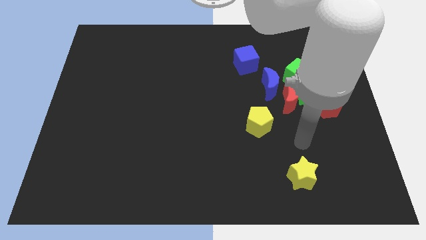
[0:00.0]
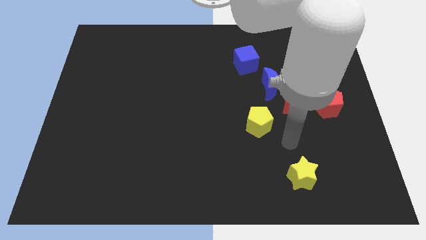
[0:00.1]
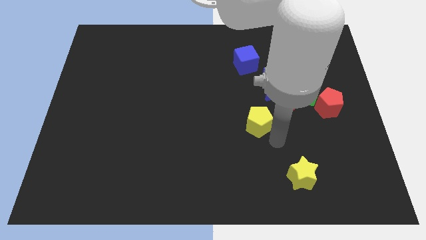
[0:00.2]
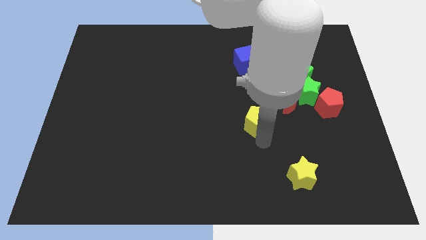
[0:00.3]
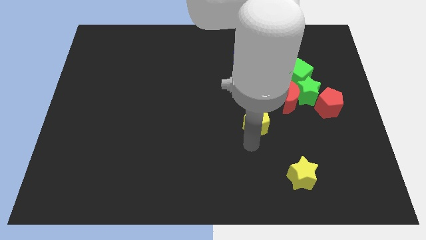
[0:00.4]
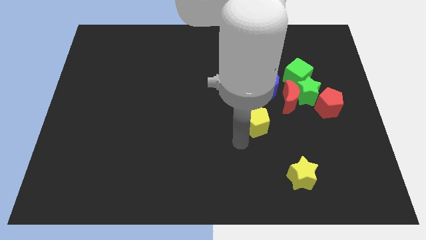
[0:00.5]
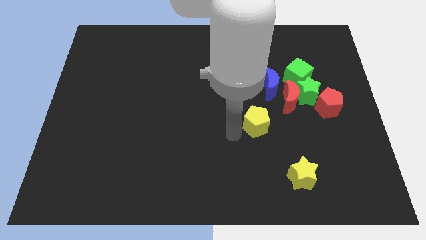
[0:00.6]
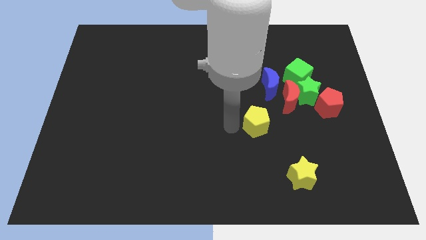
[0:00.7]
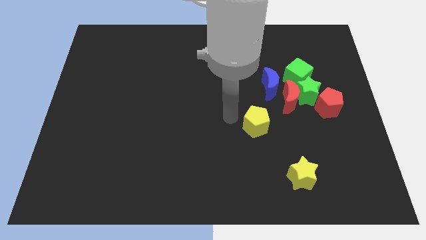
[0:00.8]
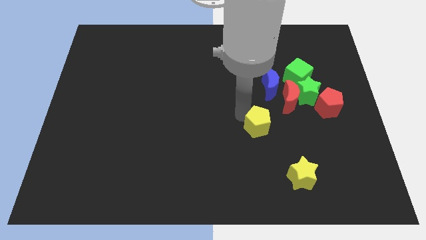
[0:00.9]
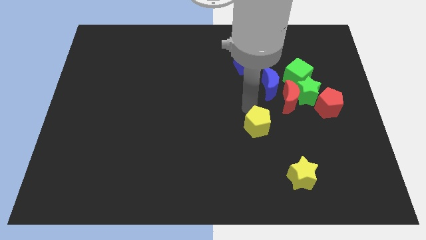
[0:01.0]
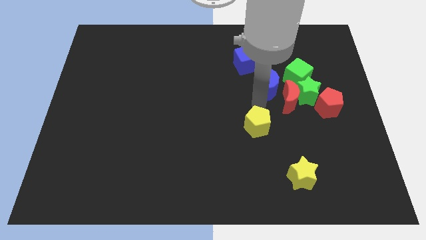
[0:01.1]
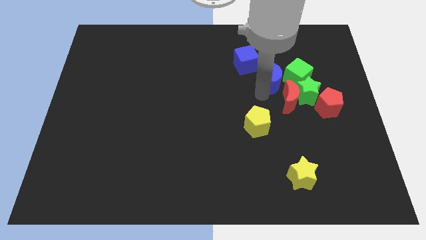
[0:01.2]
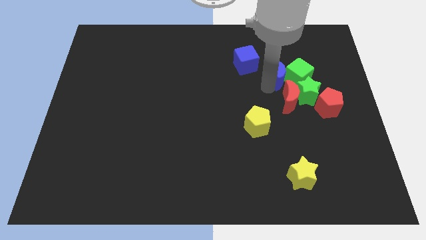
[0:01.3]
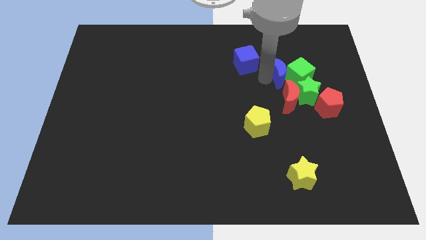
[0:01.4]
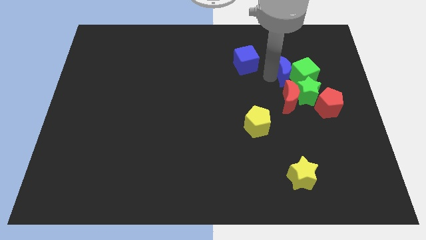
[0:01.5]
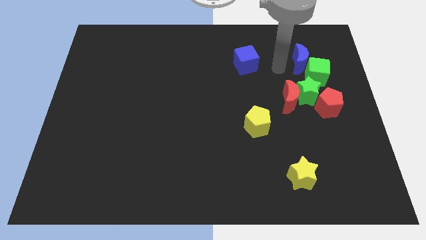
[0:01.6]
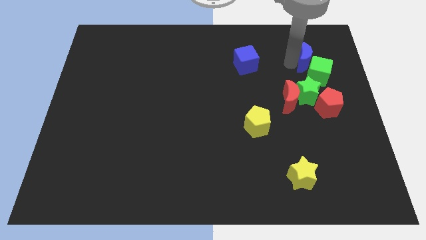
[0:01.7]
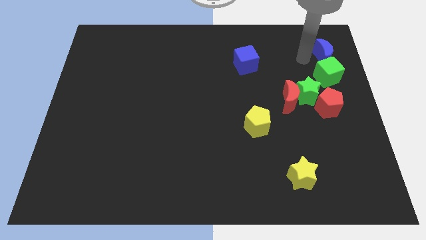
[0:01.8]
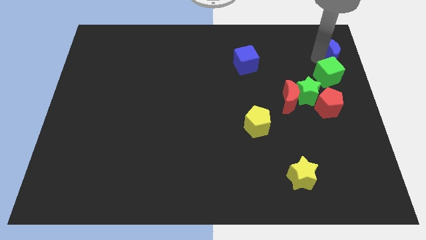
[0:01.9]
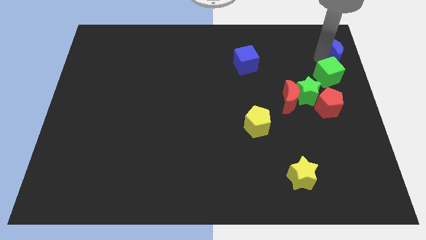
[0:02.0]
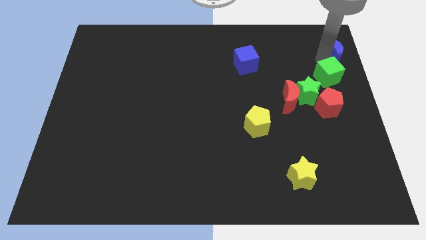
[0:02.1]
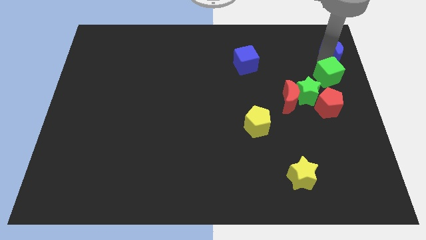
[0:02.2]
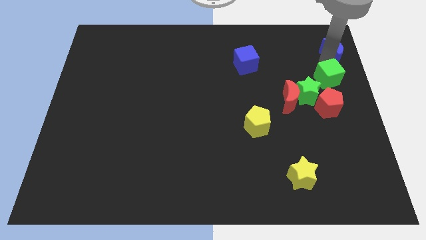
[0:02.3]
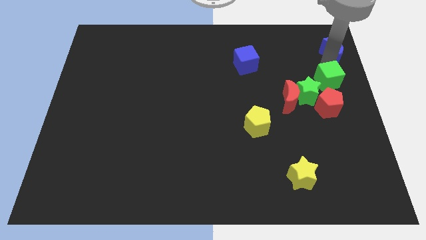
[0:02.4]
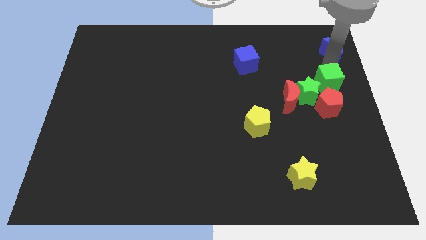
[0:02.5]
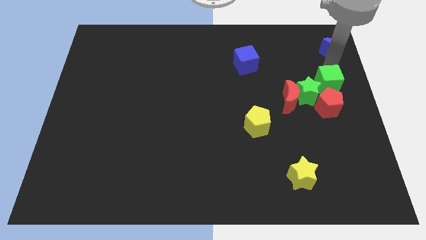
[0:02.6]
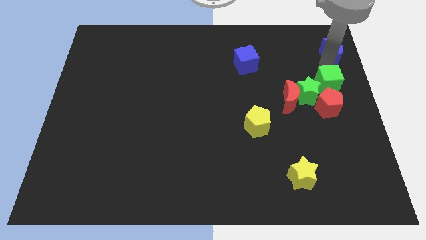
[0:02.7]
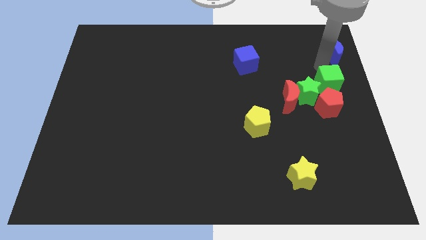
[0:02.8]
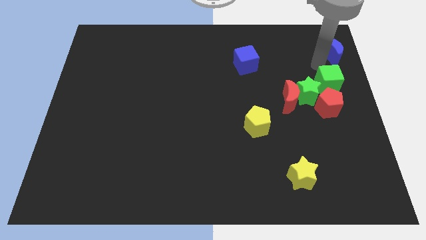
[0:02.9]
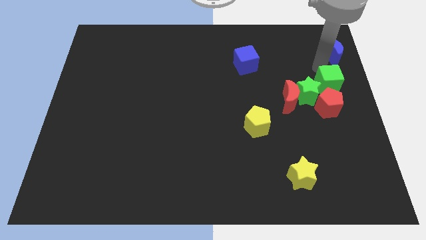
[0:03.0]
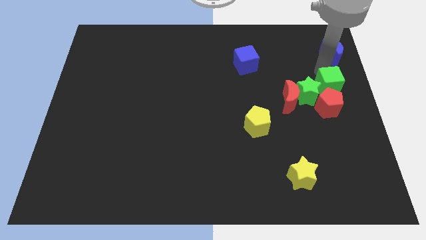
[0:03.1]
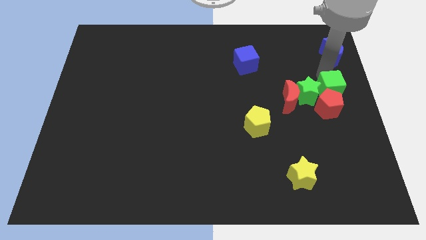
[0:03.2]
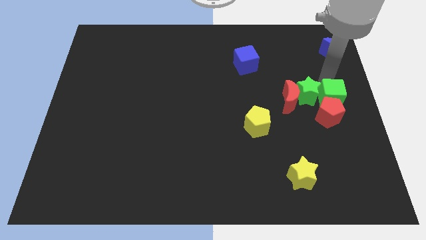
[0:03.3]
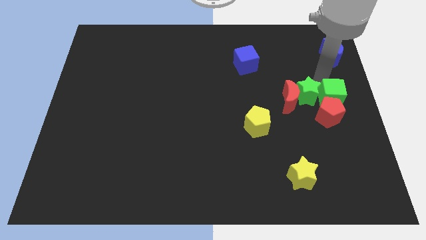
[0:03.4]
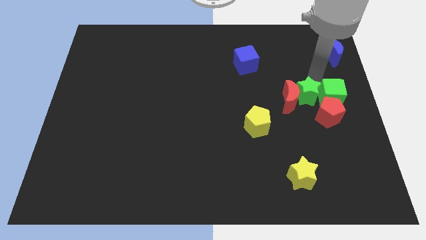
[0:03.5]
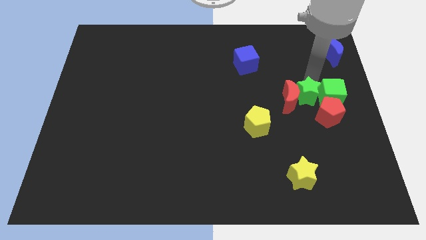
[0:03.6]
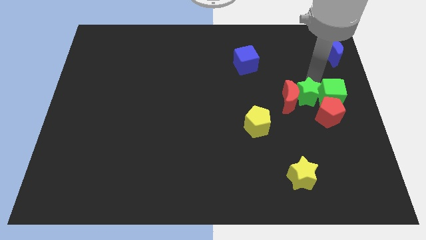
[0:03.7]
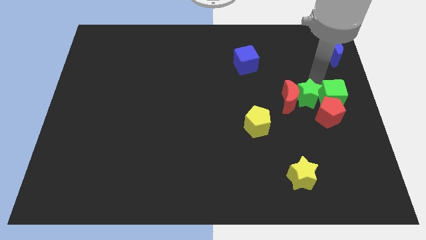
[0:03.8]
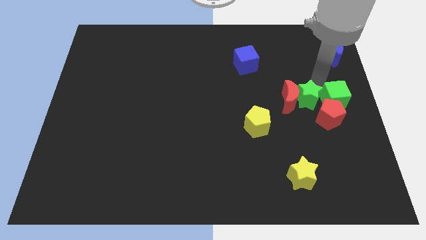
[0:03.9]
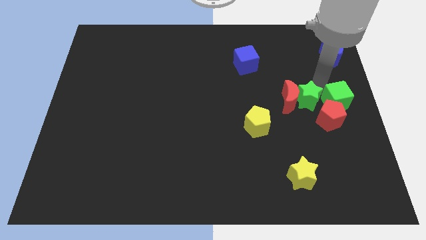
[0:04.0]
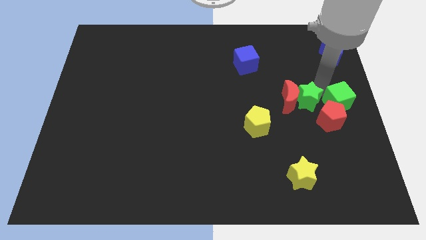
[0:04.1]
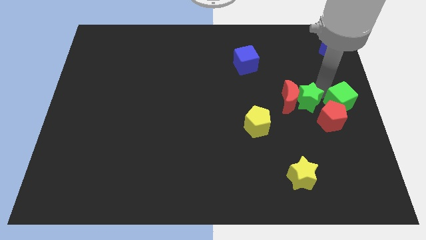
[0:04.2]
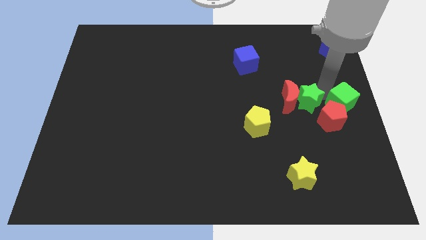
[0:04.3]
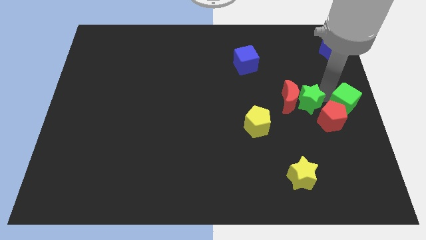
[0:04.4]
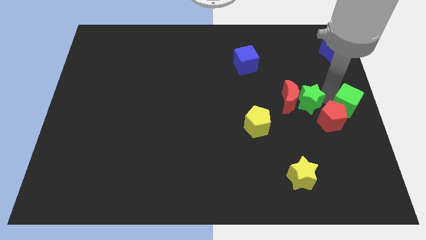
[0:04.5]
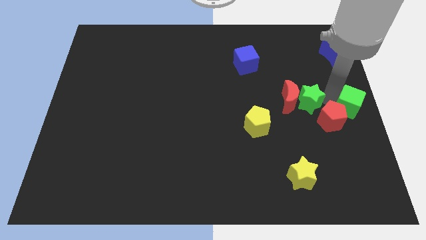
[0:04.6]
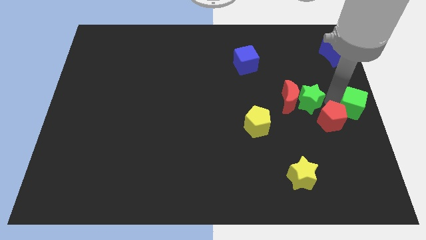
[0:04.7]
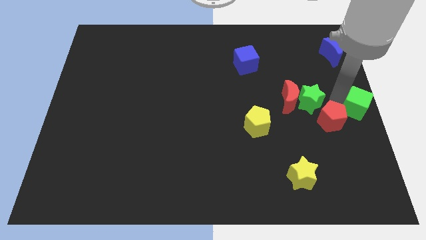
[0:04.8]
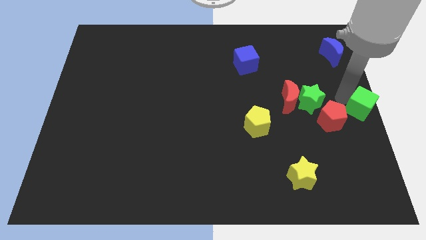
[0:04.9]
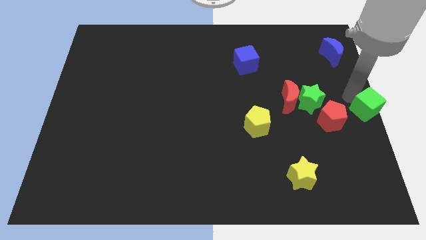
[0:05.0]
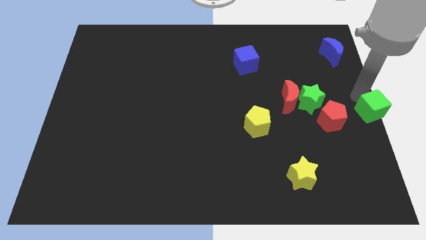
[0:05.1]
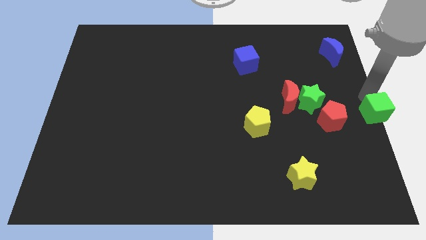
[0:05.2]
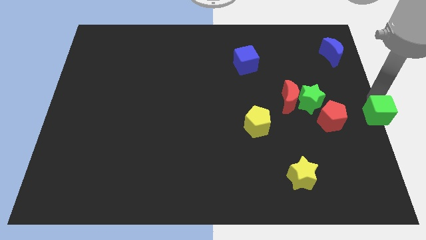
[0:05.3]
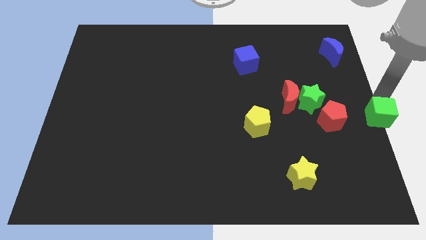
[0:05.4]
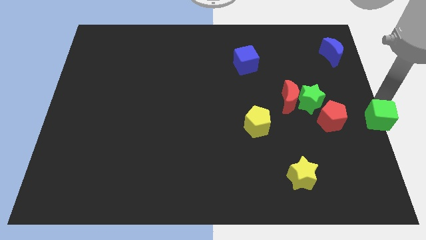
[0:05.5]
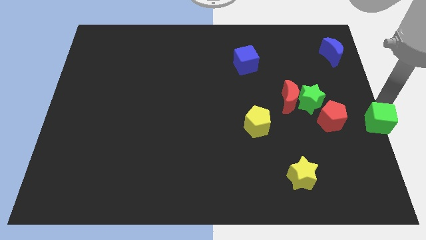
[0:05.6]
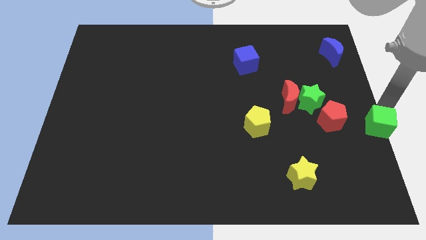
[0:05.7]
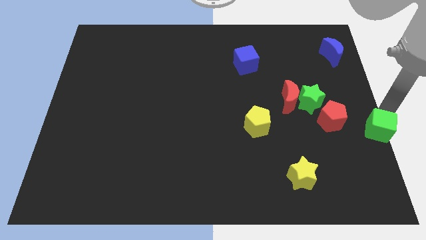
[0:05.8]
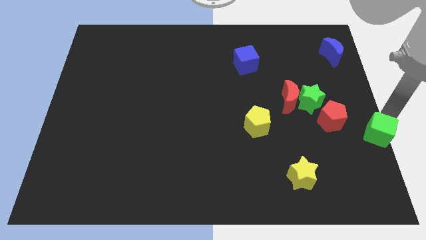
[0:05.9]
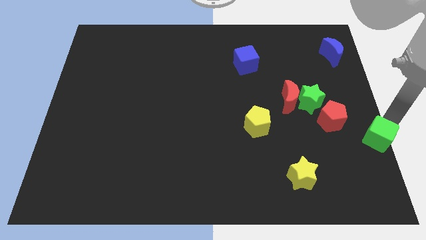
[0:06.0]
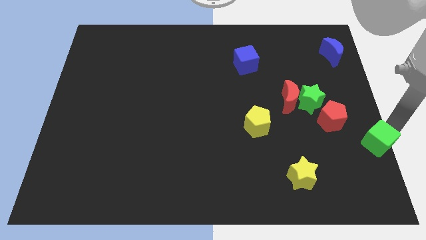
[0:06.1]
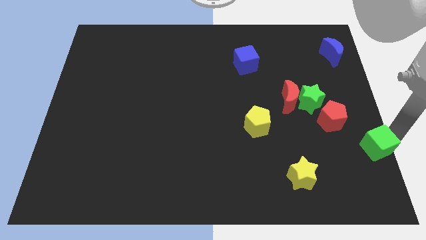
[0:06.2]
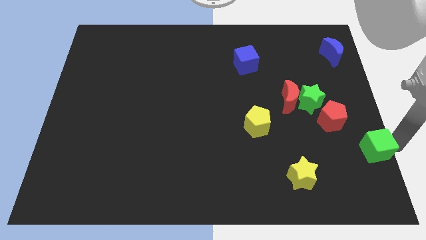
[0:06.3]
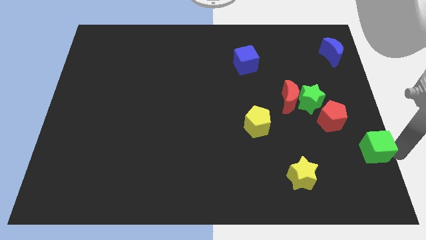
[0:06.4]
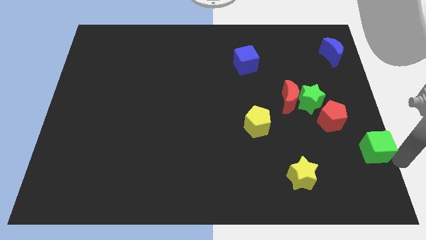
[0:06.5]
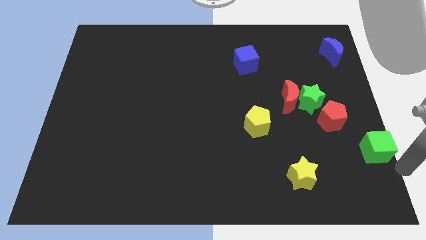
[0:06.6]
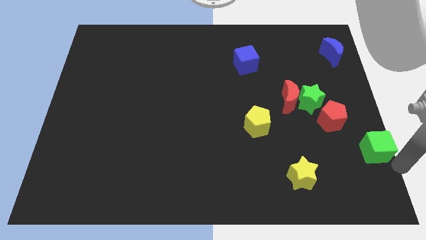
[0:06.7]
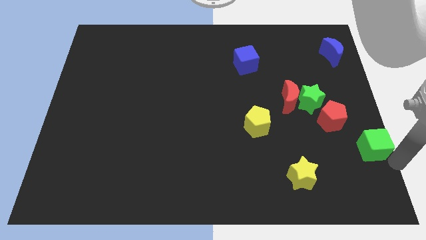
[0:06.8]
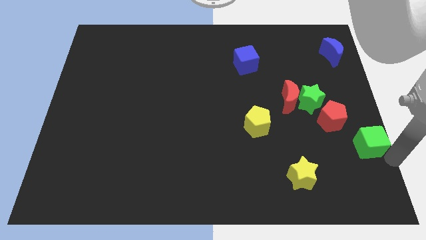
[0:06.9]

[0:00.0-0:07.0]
slightly move the green cube downwards

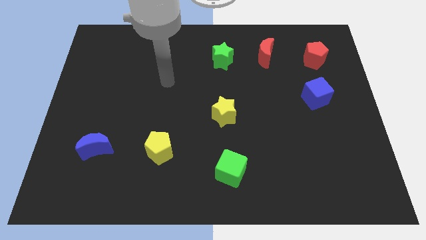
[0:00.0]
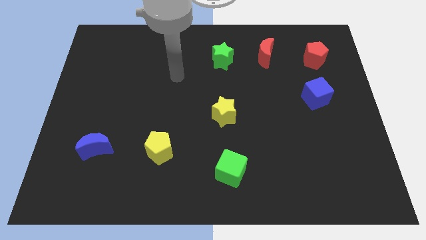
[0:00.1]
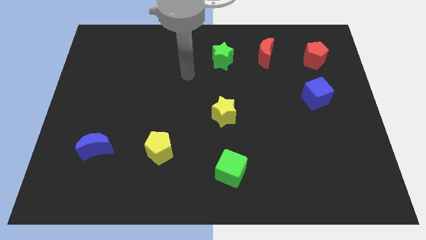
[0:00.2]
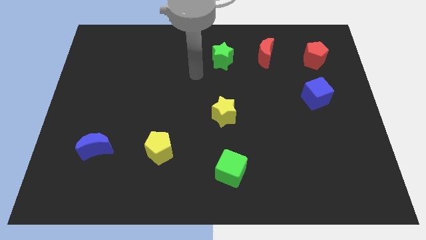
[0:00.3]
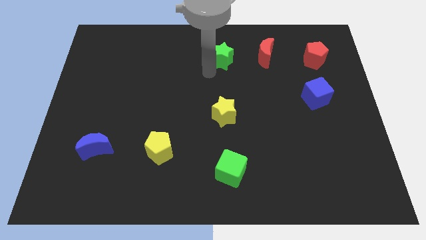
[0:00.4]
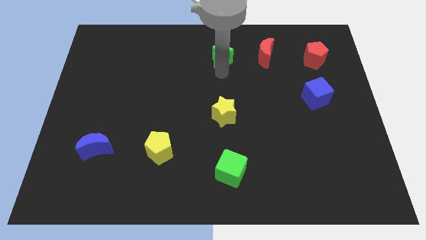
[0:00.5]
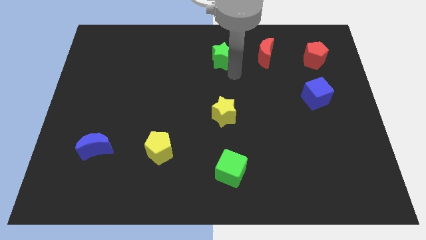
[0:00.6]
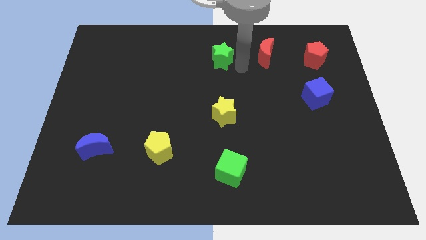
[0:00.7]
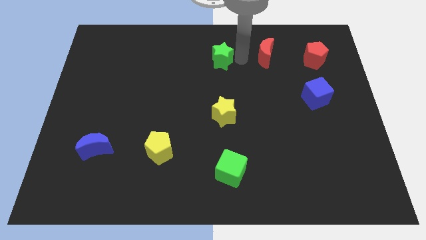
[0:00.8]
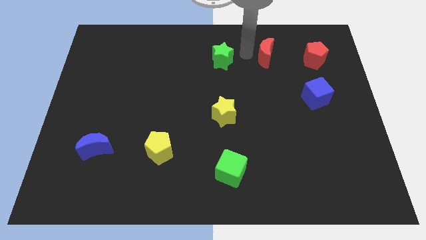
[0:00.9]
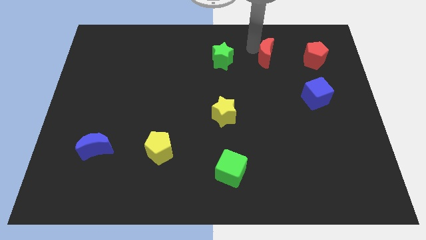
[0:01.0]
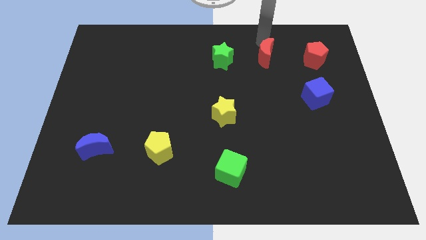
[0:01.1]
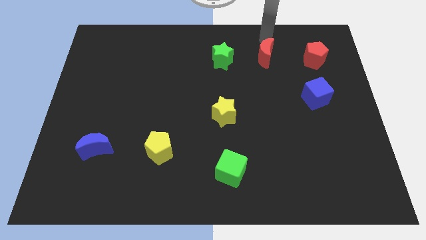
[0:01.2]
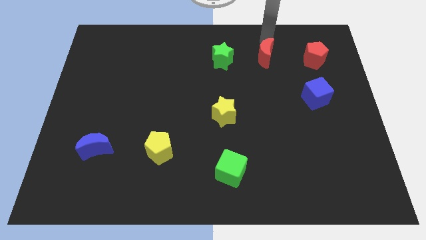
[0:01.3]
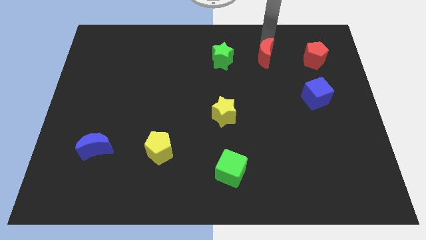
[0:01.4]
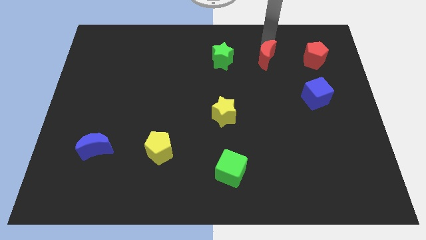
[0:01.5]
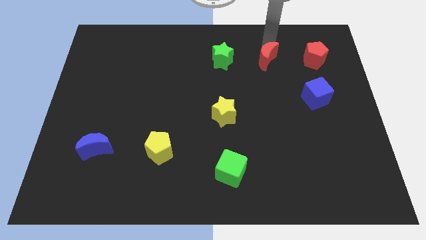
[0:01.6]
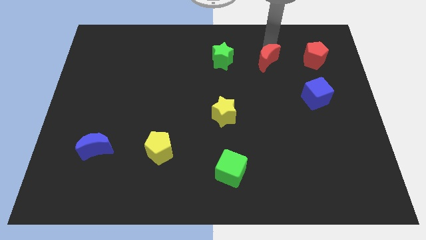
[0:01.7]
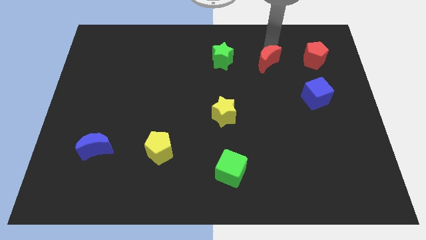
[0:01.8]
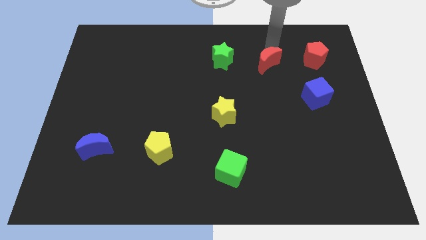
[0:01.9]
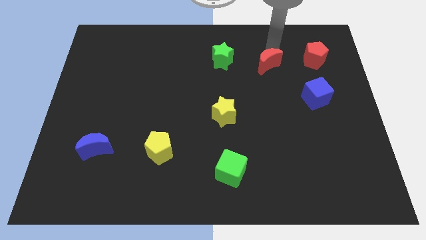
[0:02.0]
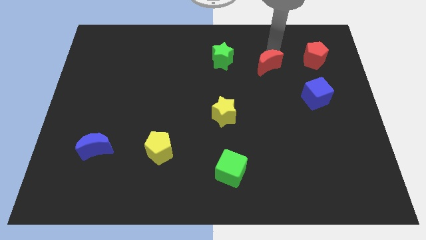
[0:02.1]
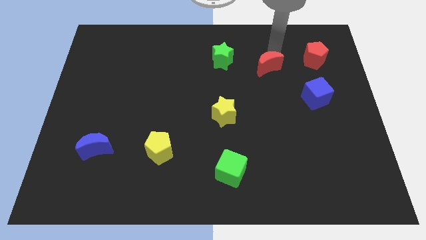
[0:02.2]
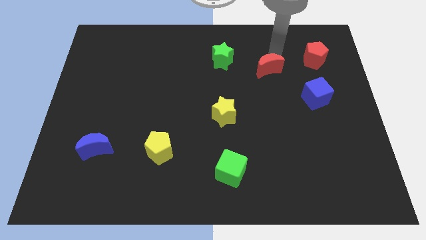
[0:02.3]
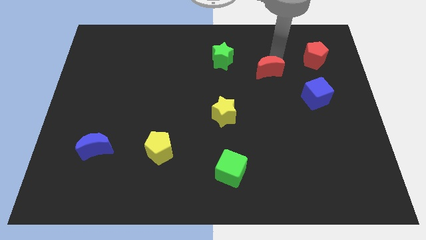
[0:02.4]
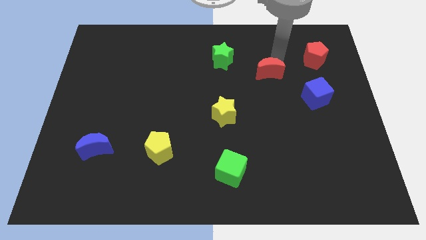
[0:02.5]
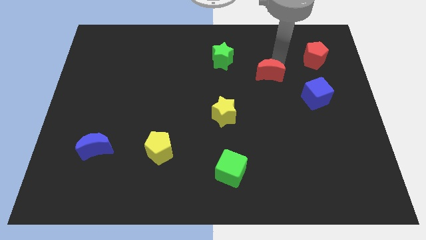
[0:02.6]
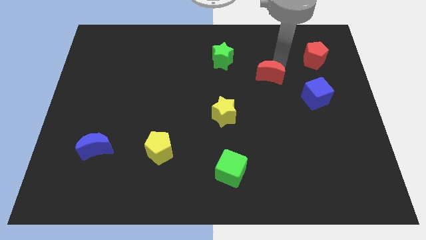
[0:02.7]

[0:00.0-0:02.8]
slightly move the red moon downwards
